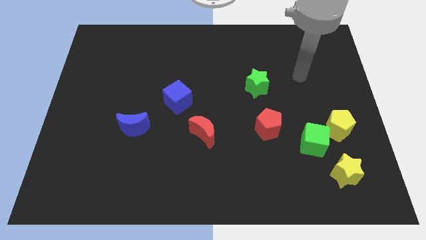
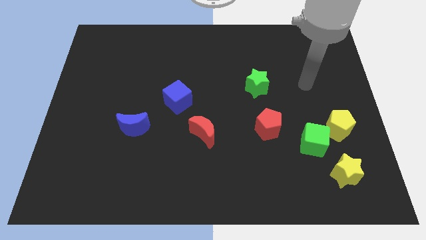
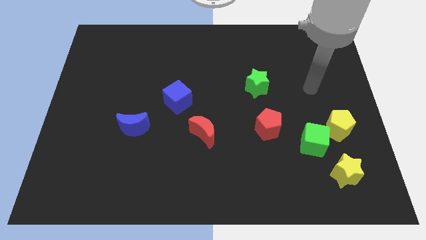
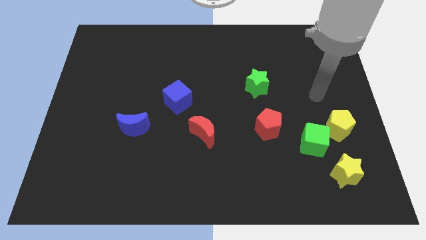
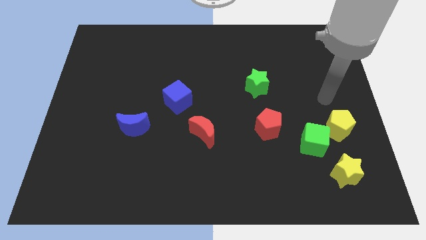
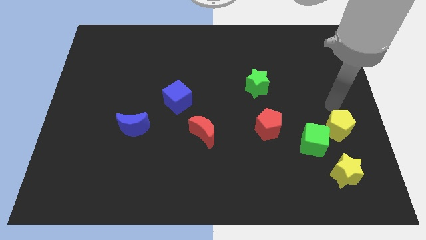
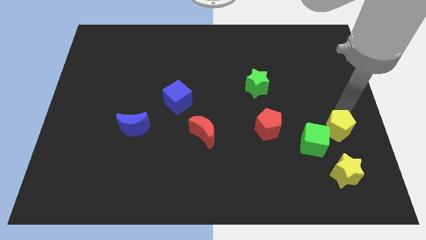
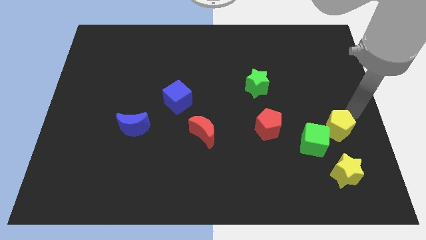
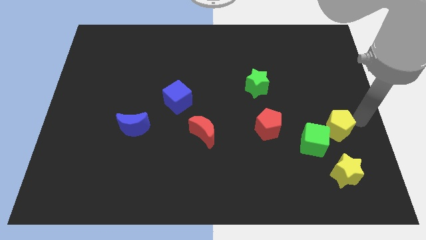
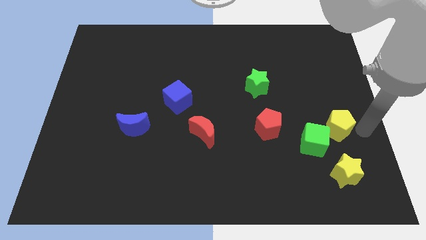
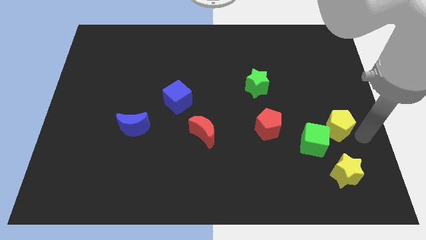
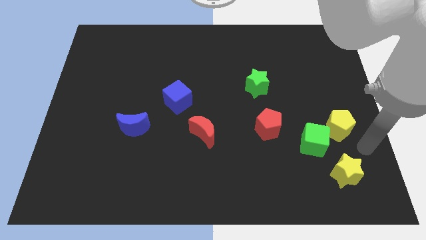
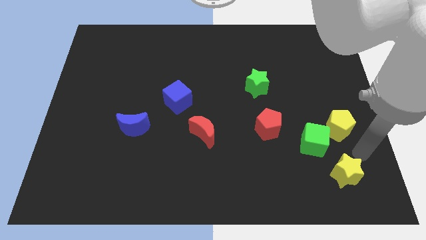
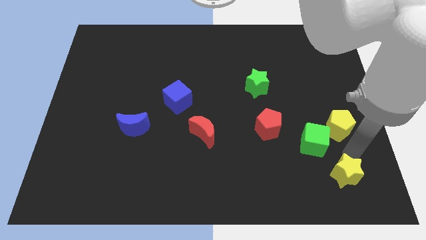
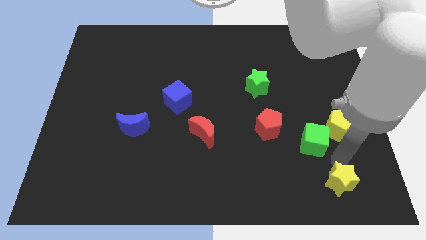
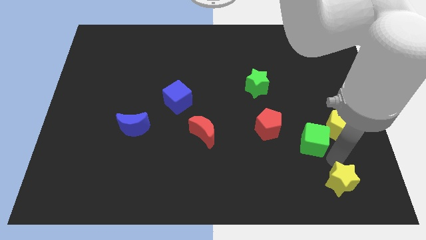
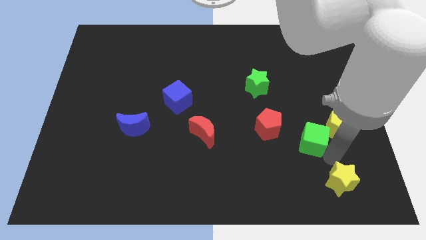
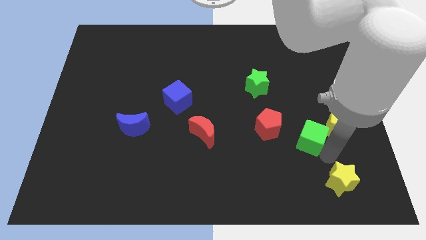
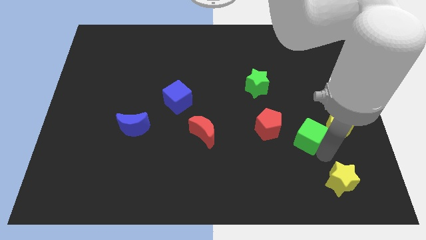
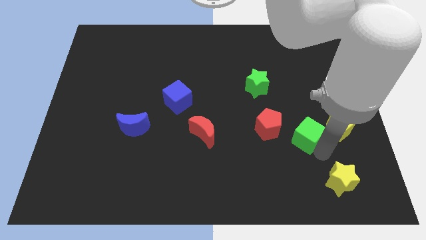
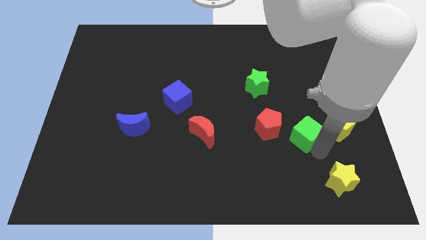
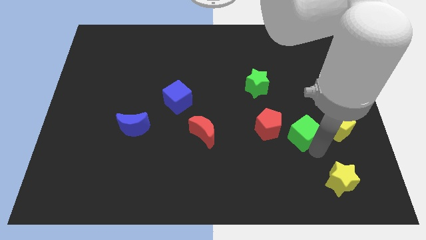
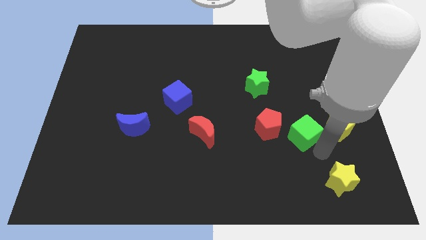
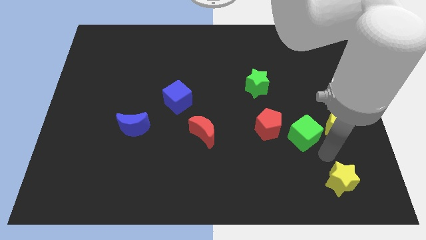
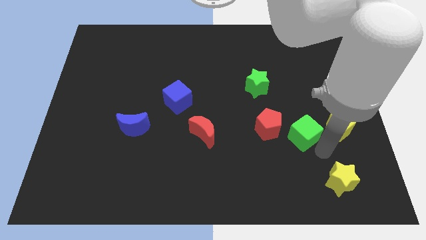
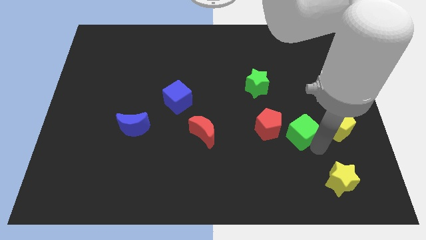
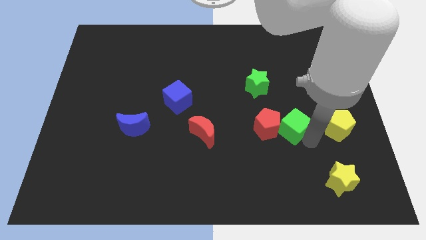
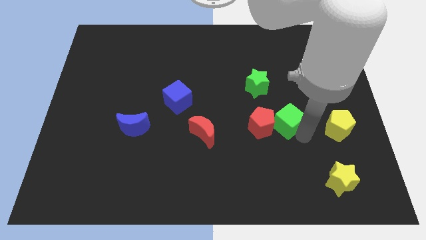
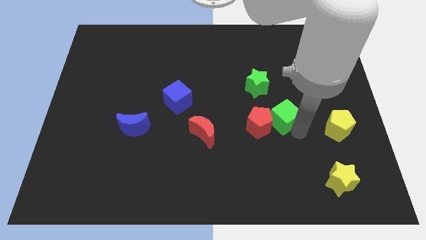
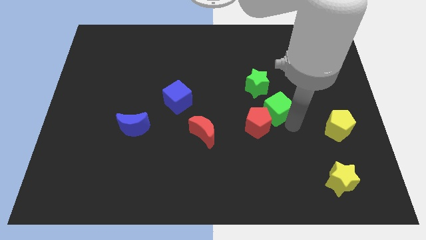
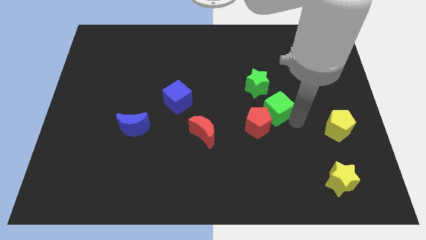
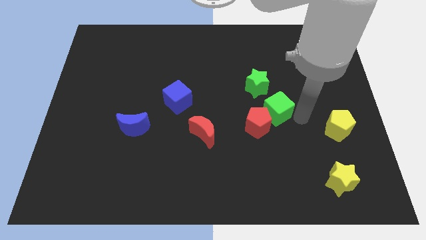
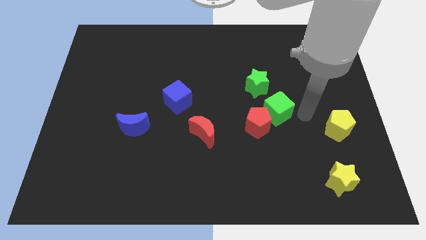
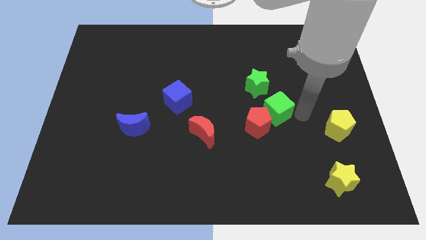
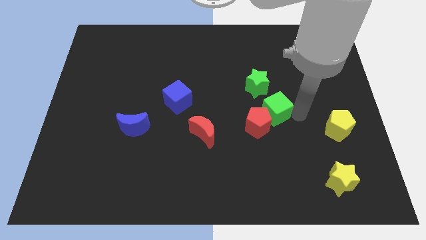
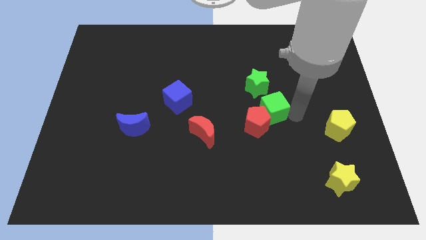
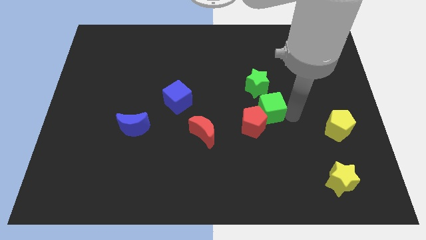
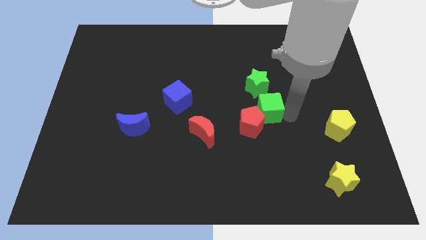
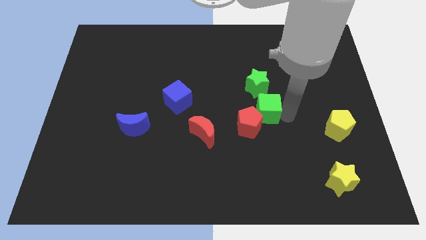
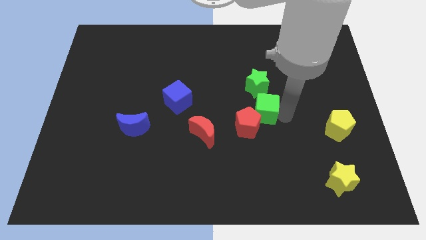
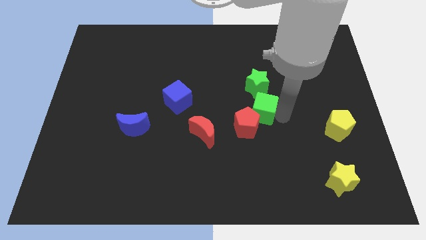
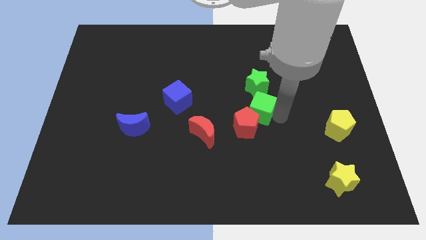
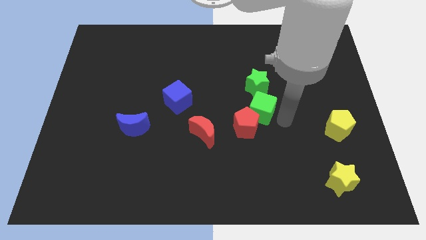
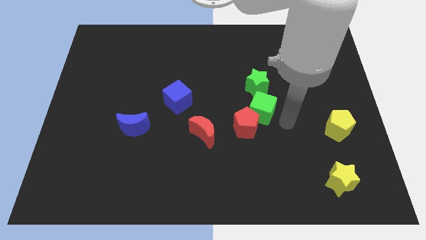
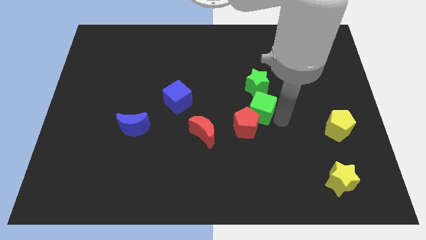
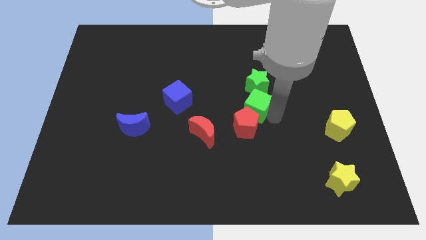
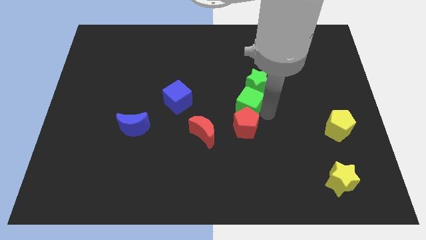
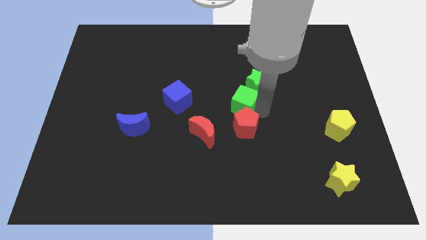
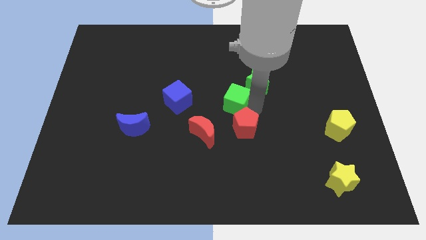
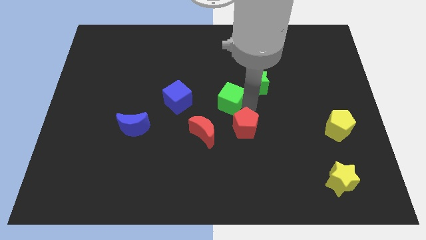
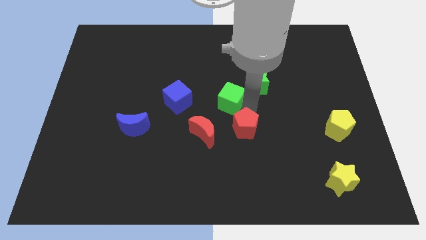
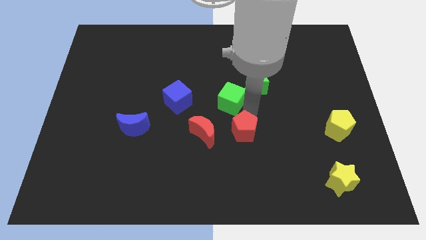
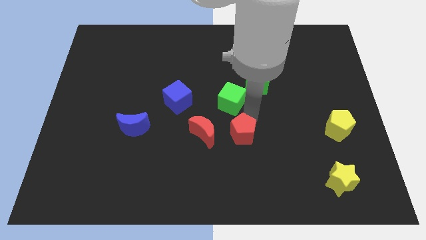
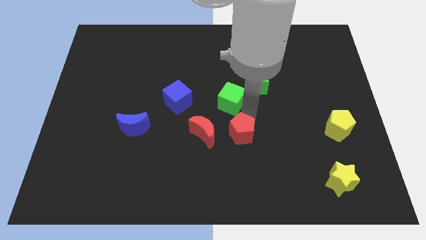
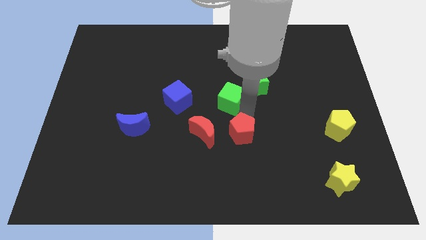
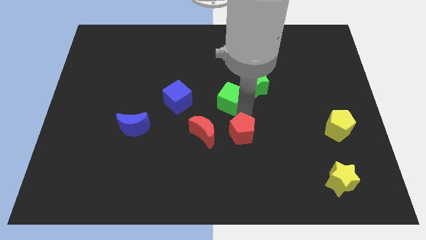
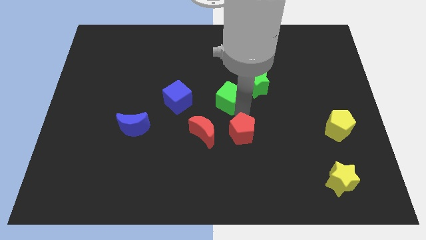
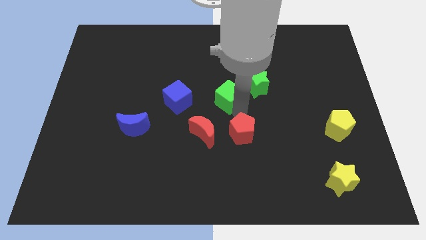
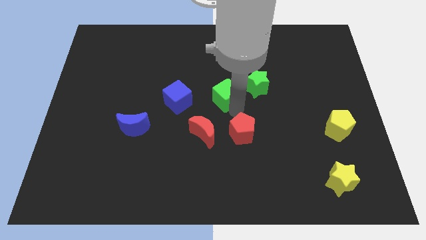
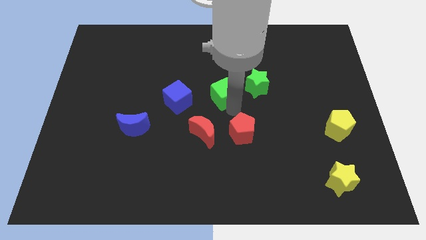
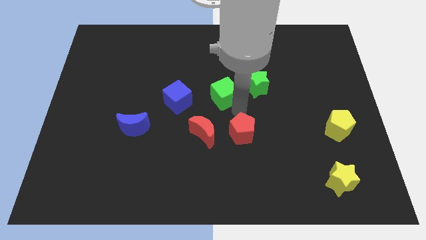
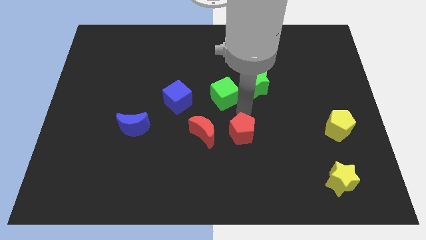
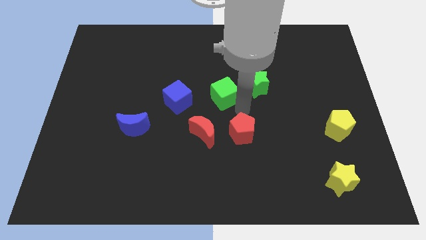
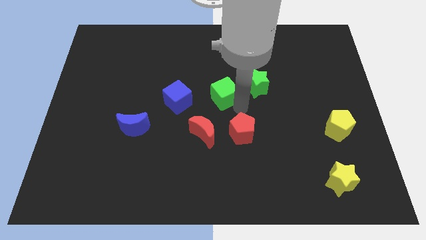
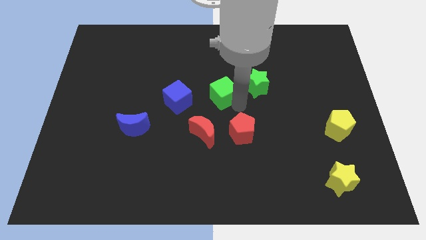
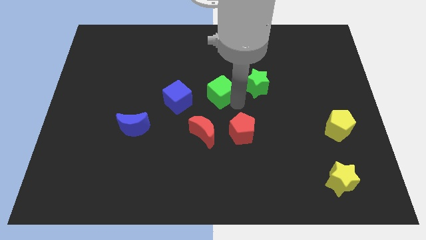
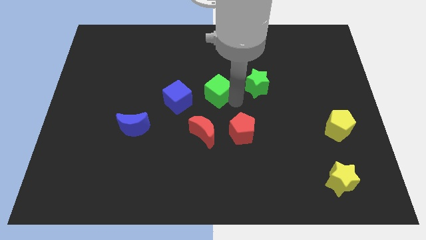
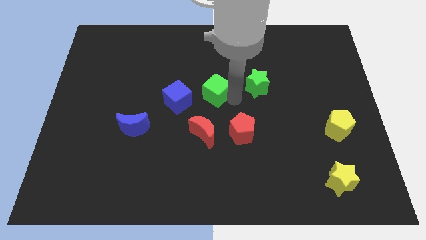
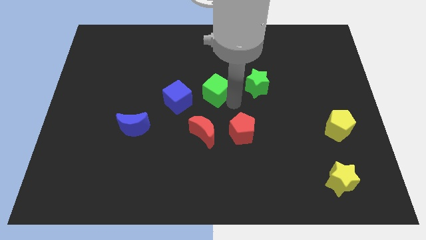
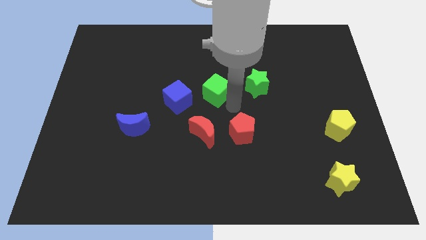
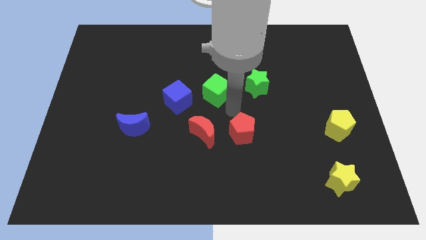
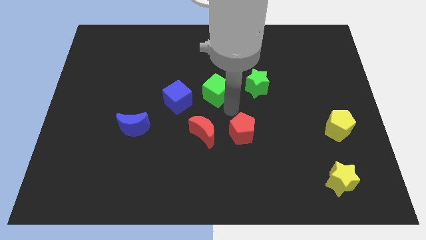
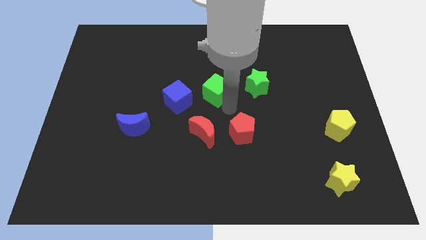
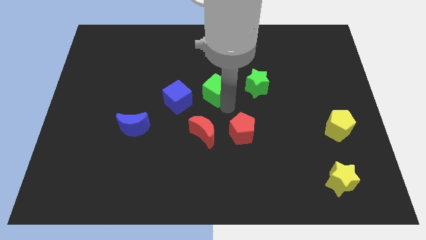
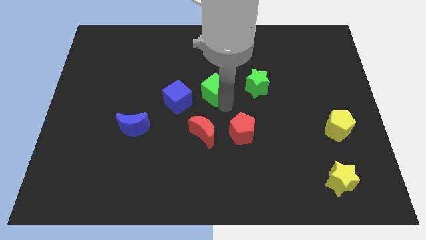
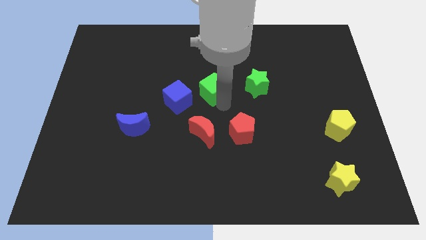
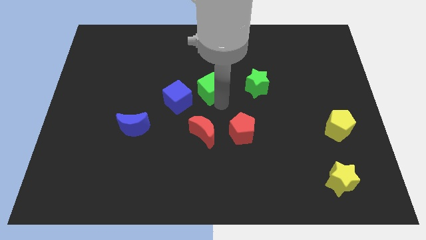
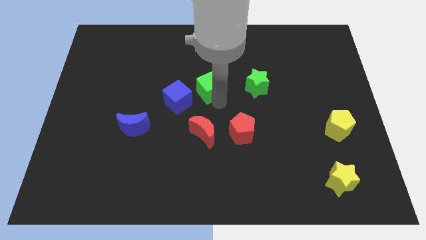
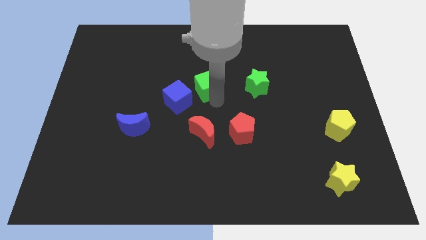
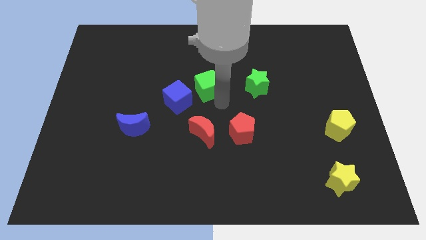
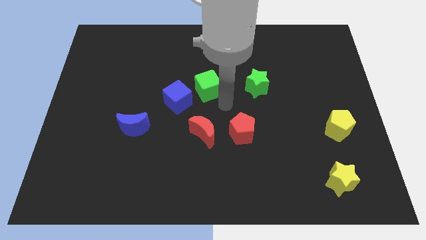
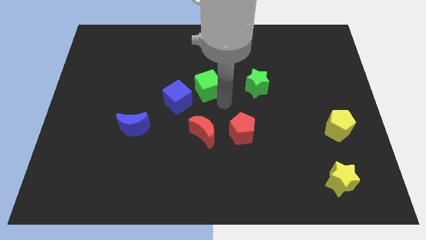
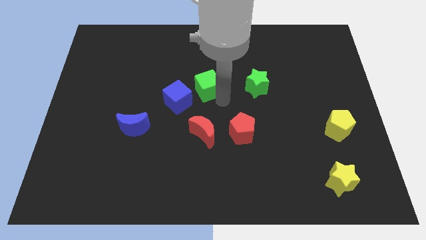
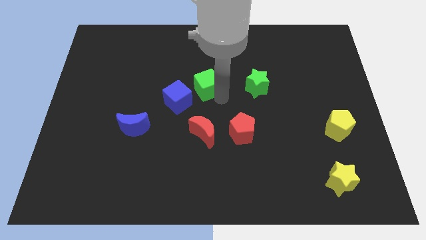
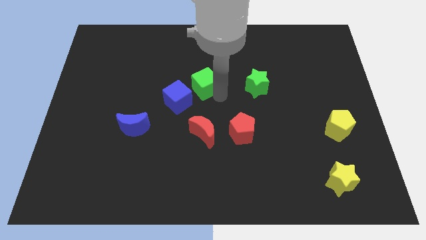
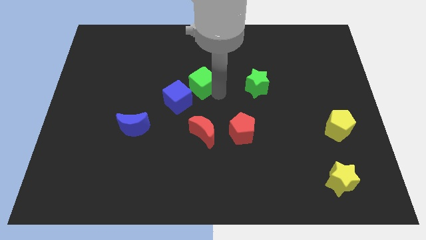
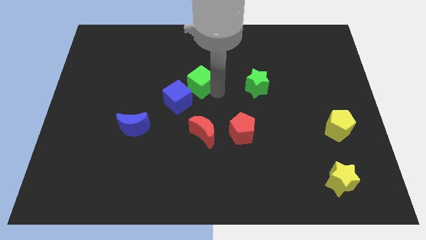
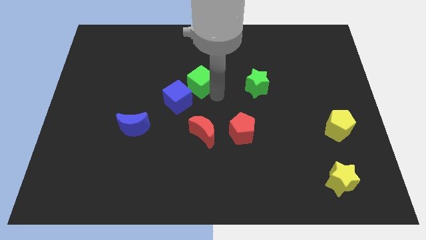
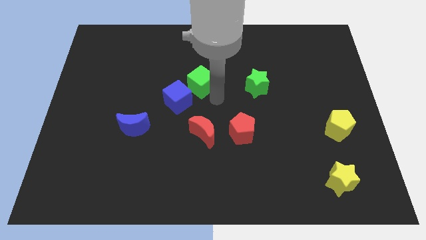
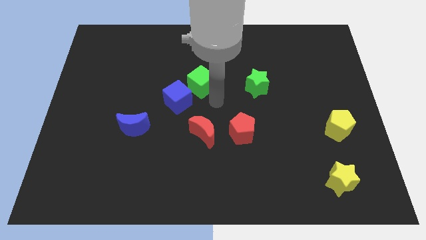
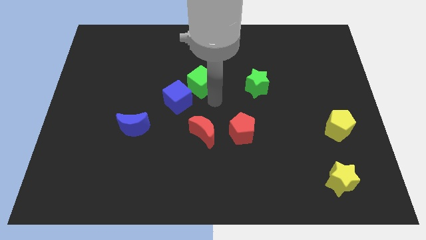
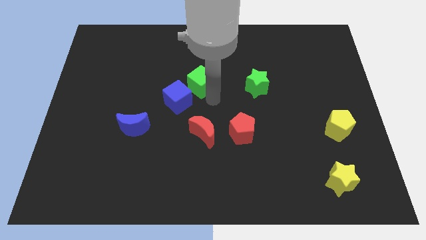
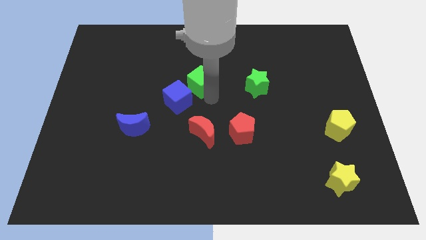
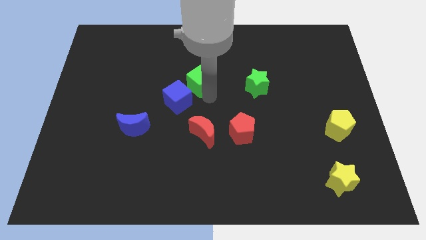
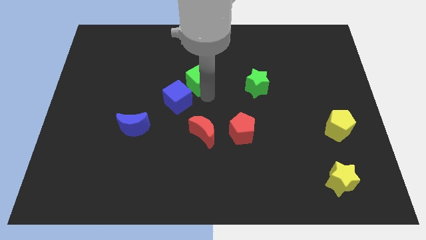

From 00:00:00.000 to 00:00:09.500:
slide the green cube to the top of the blue cube
